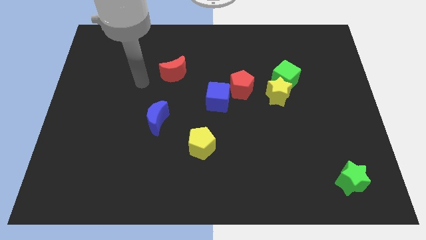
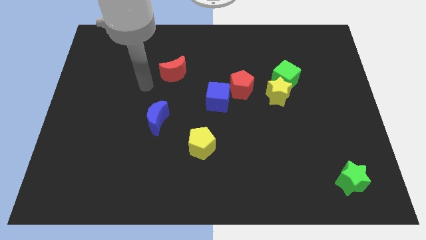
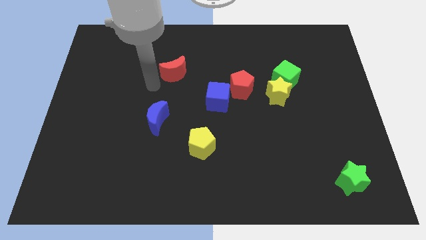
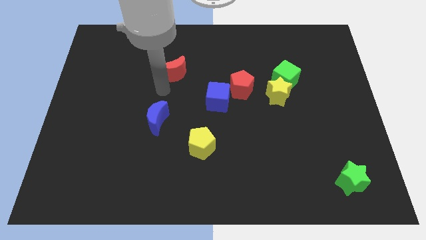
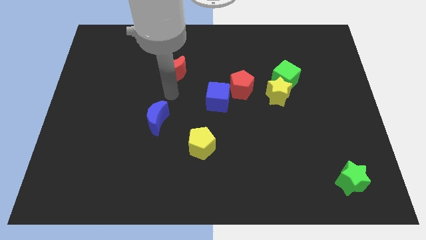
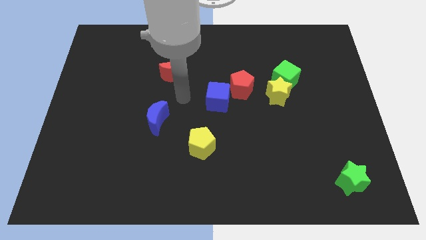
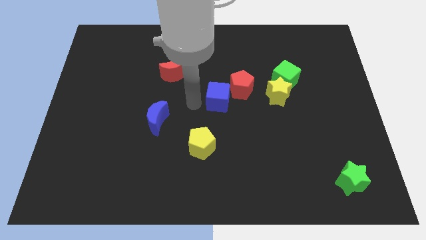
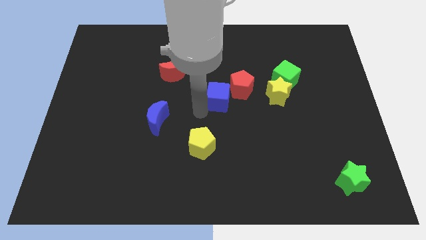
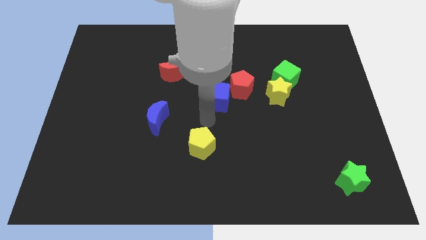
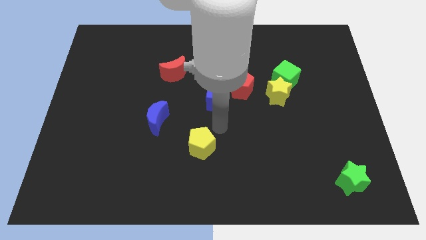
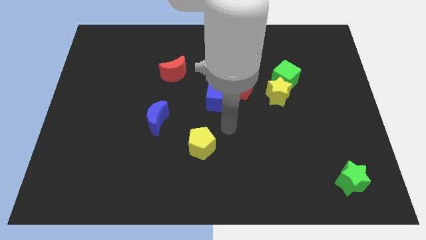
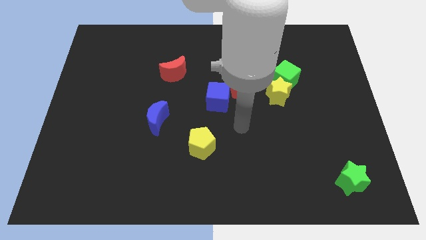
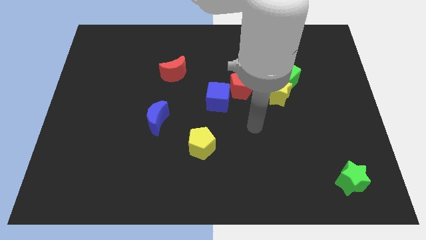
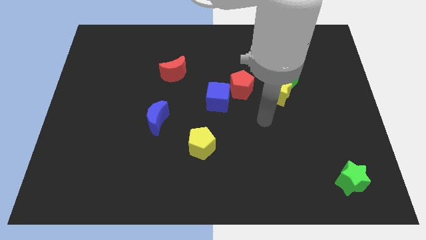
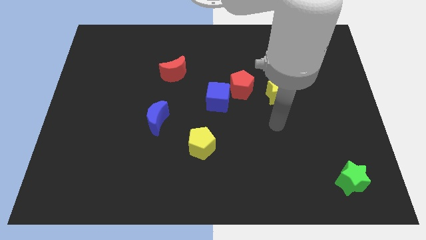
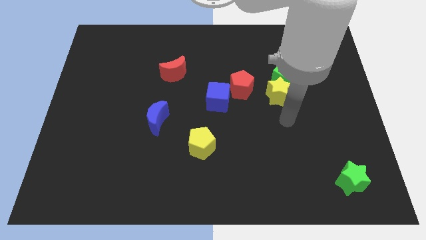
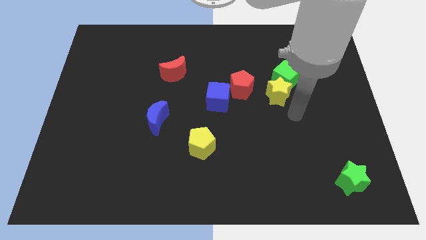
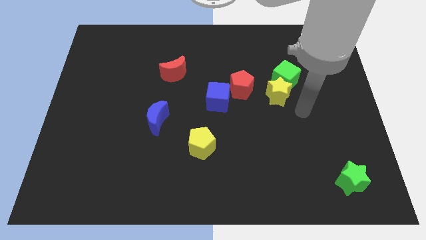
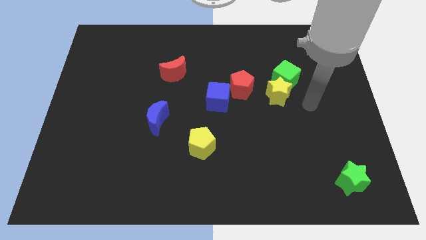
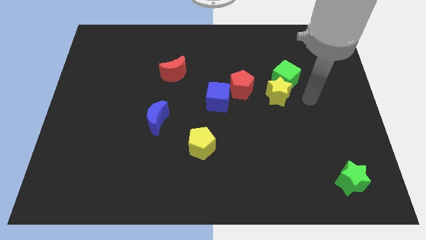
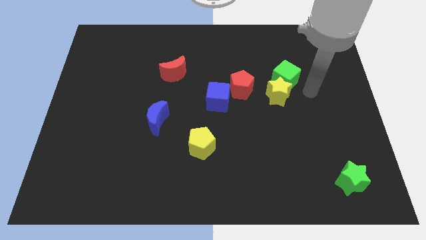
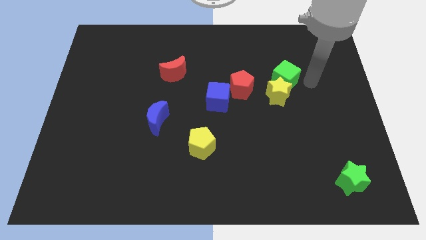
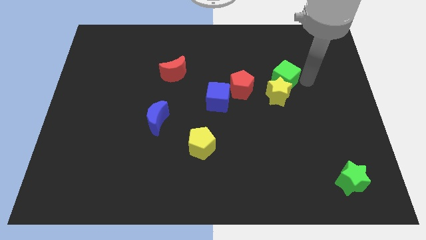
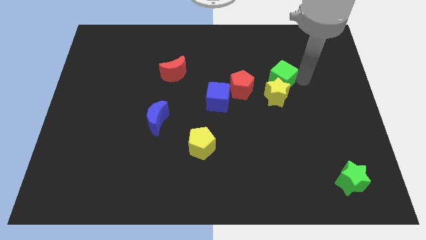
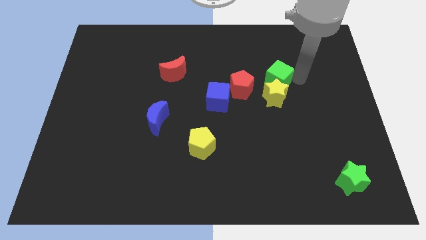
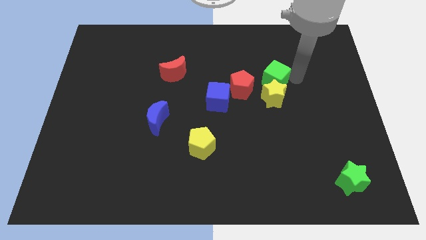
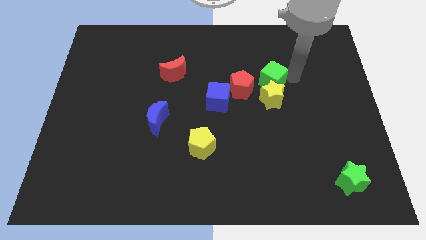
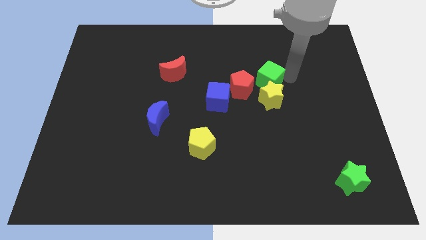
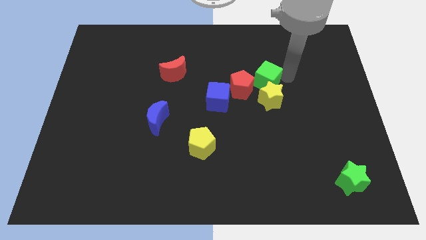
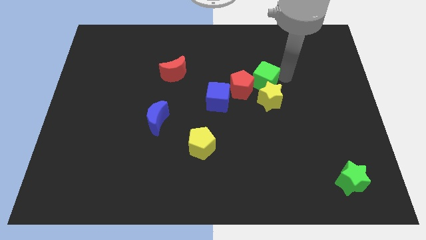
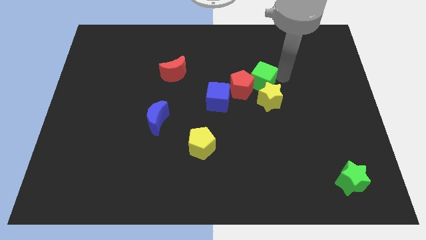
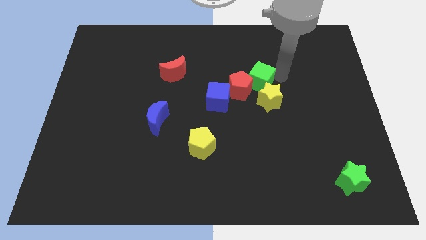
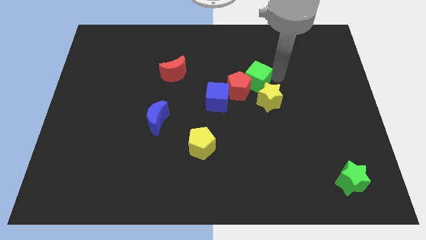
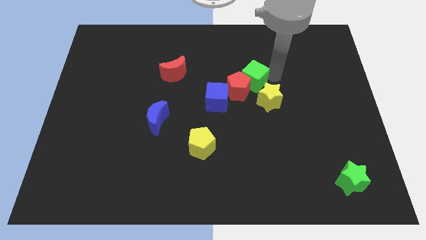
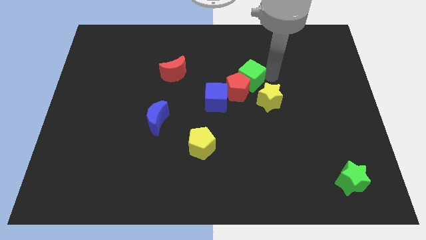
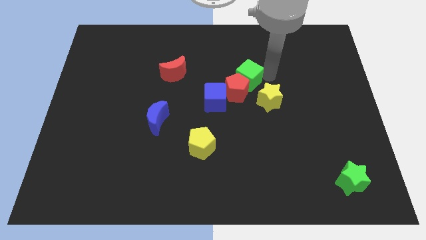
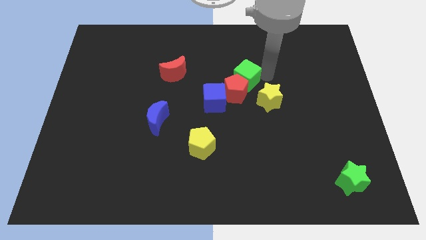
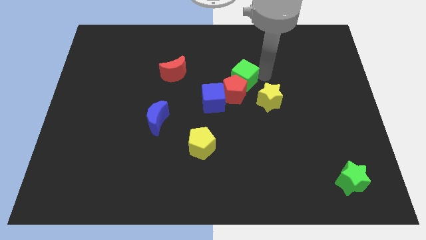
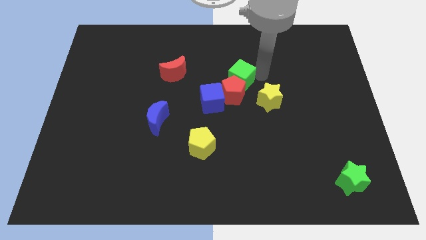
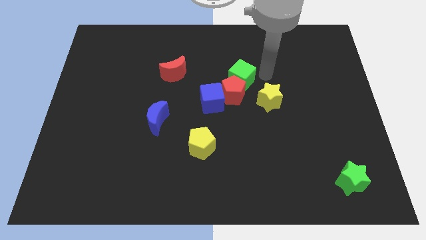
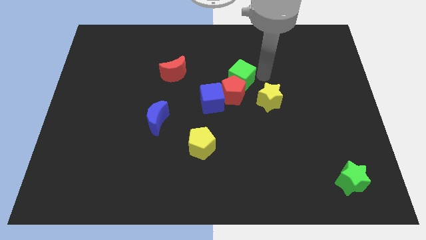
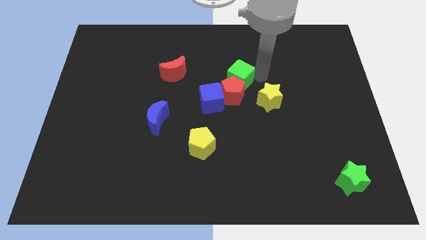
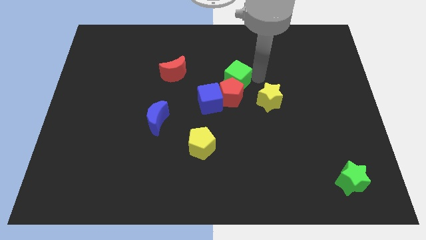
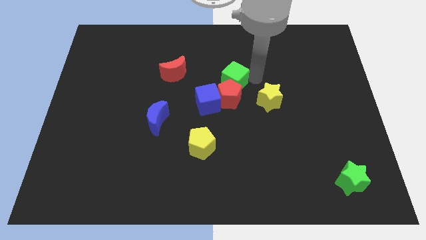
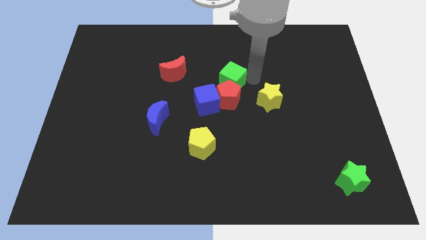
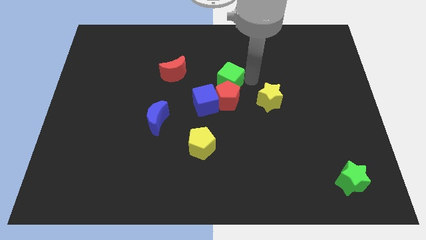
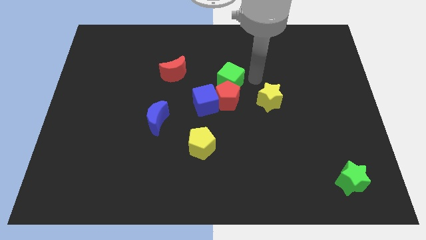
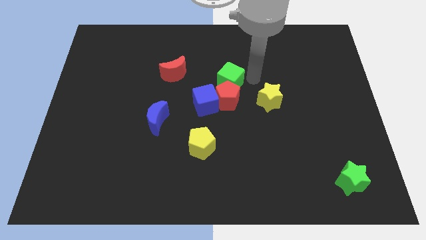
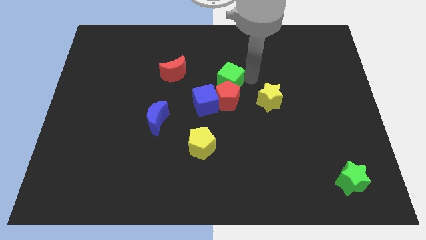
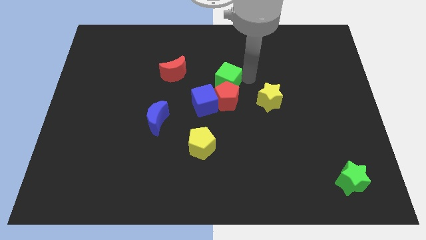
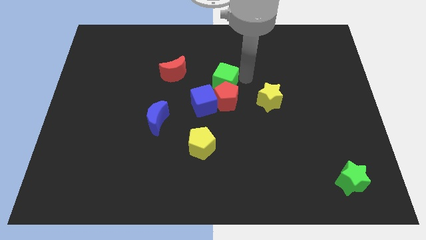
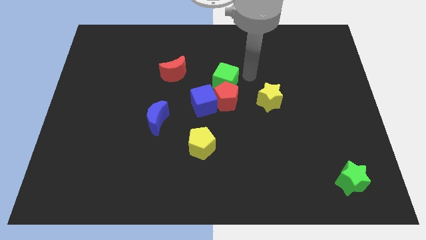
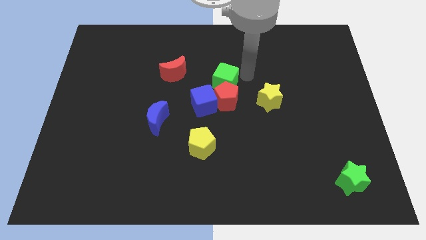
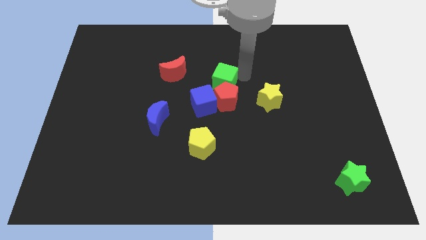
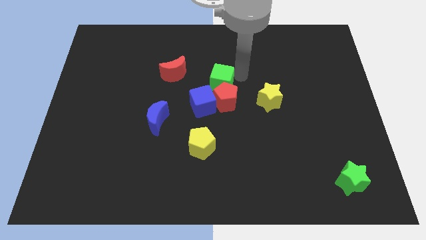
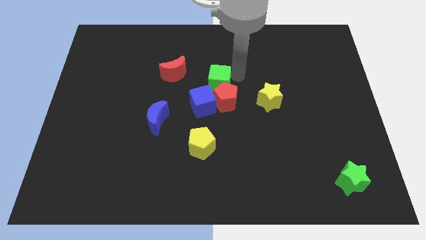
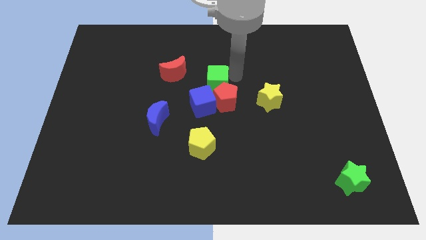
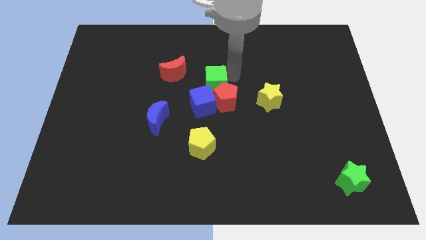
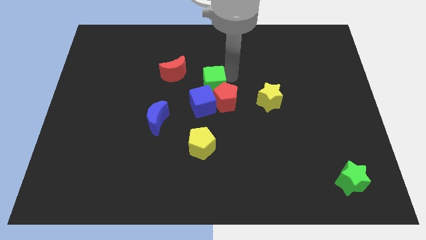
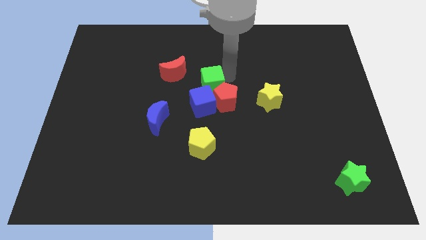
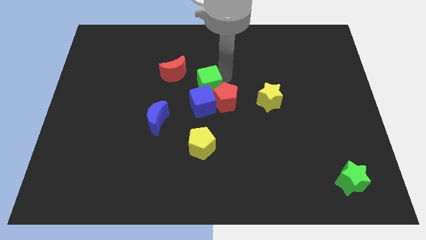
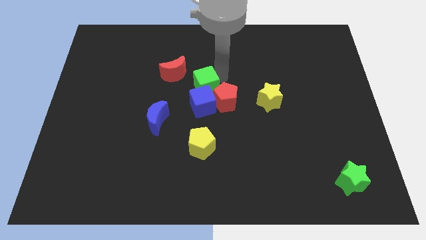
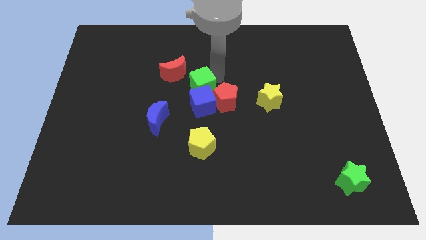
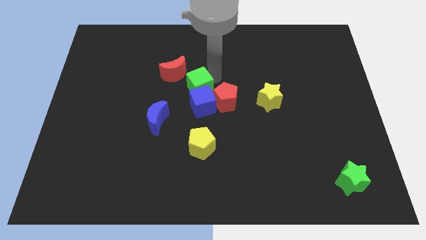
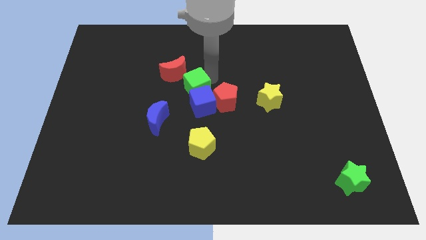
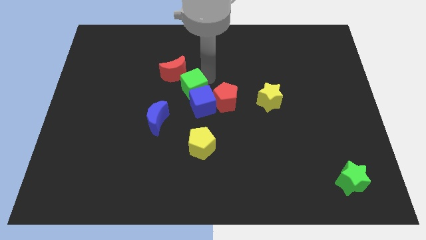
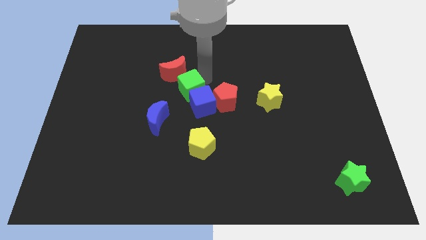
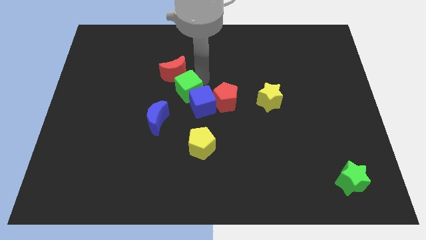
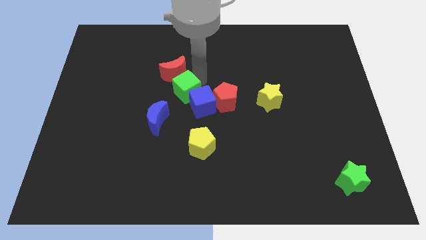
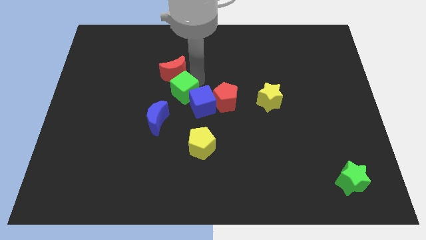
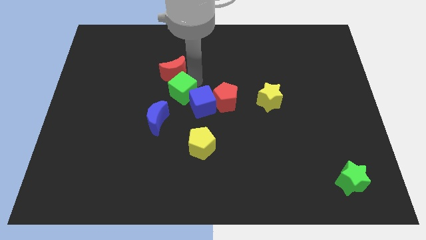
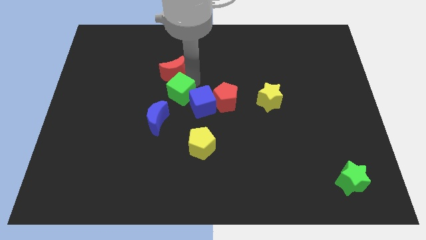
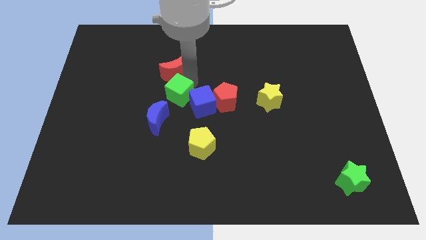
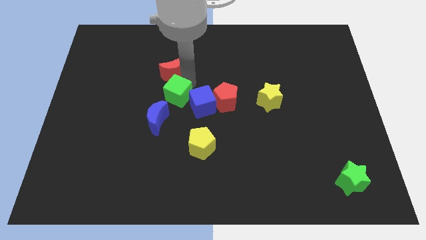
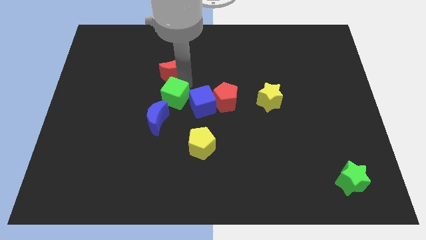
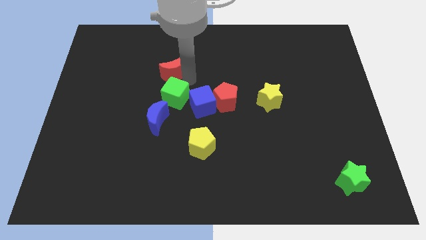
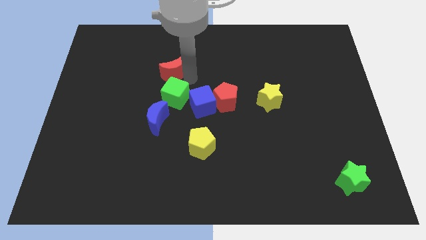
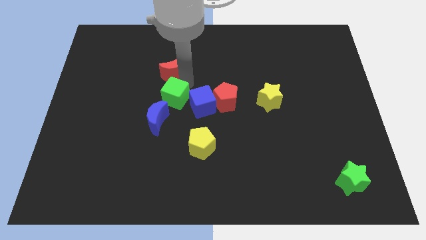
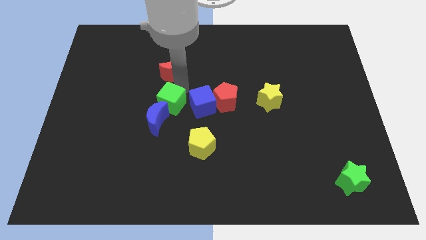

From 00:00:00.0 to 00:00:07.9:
move the green cube to the blue moon

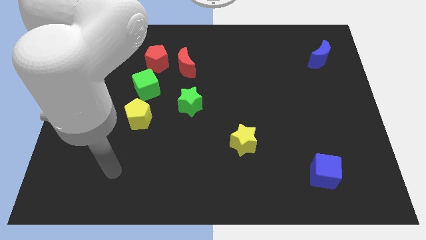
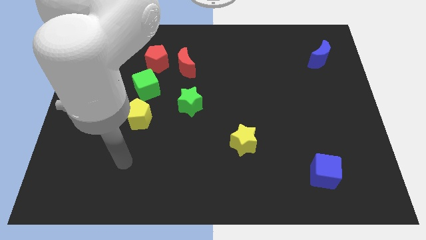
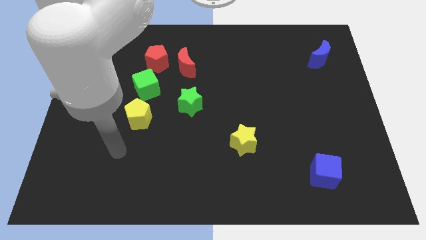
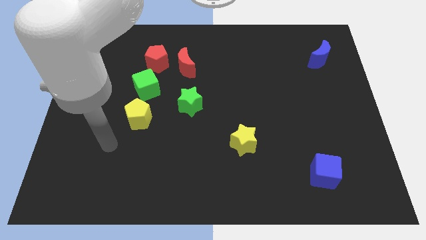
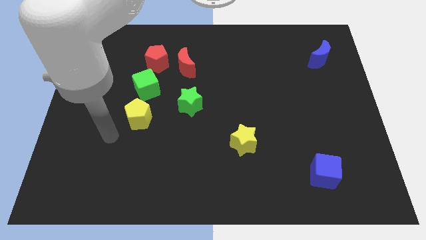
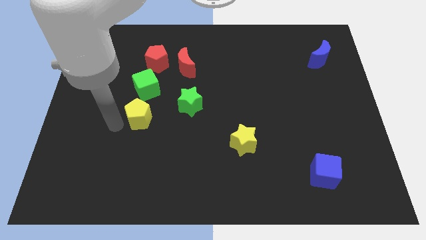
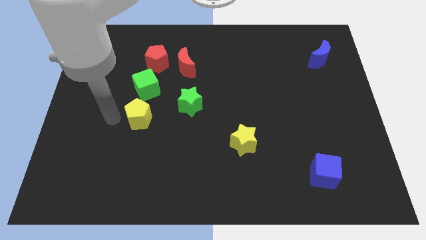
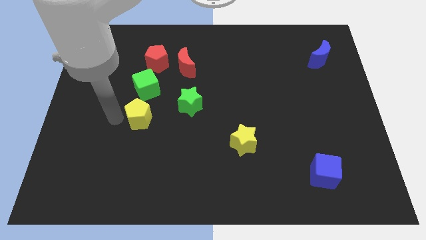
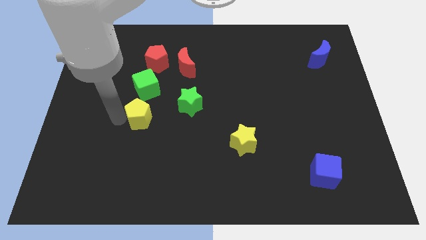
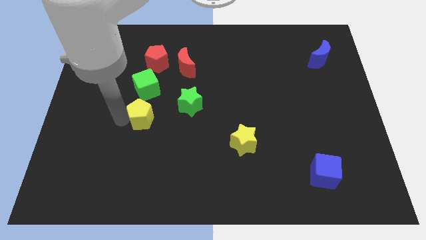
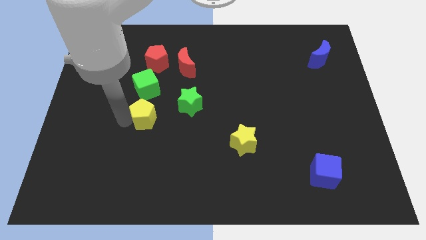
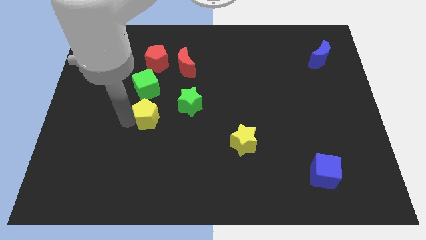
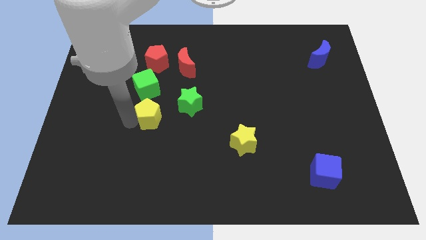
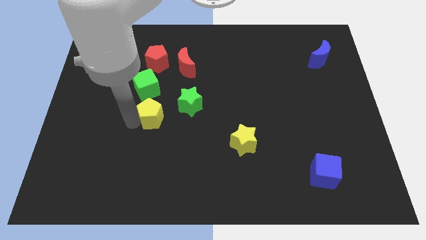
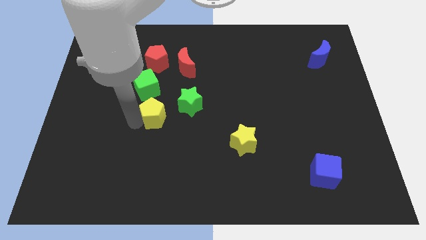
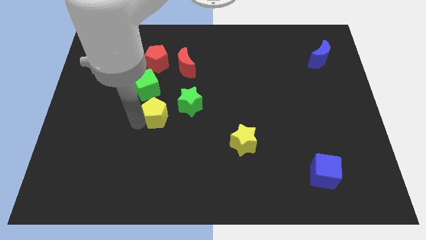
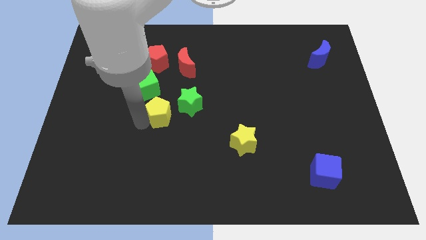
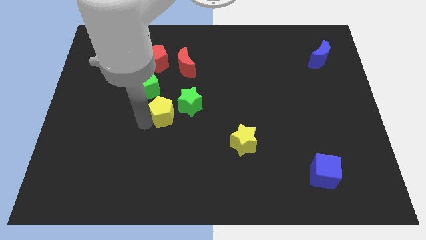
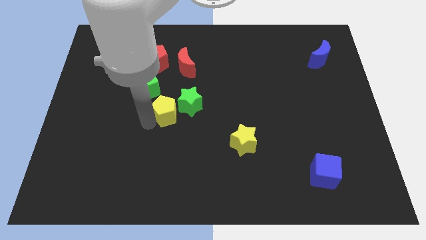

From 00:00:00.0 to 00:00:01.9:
slide the yellow pentagon close to the green star
